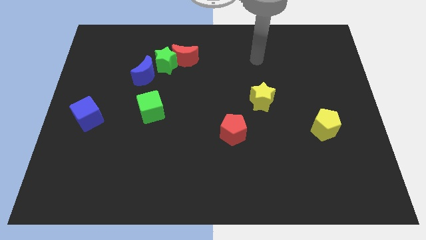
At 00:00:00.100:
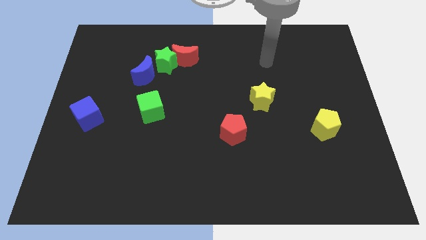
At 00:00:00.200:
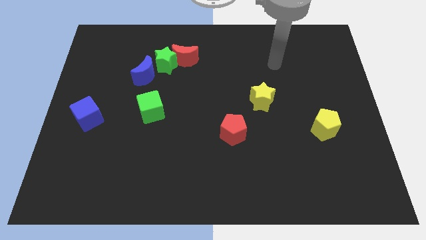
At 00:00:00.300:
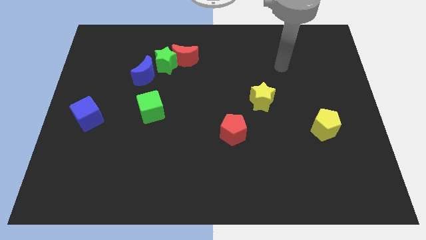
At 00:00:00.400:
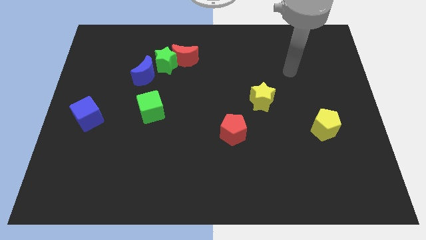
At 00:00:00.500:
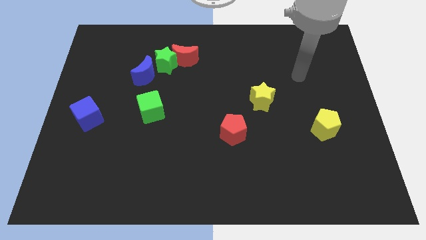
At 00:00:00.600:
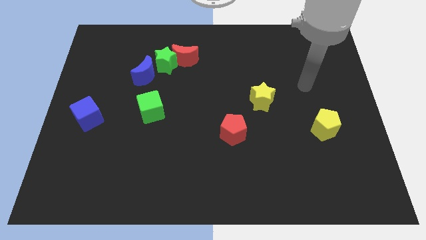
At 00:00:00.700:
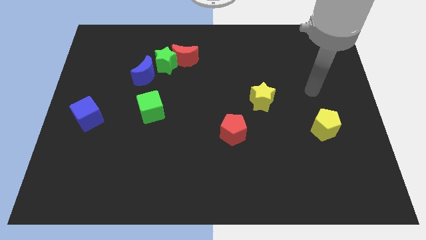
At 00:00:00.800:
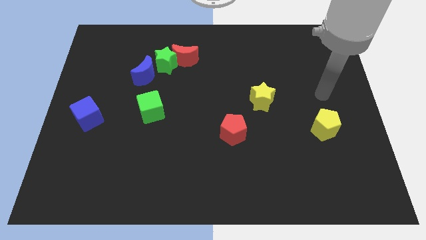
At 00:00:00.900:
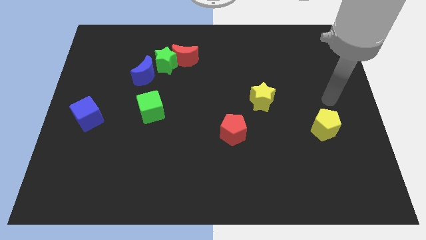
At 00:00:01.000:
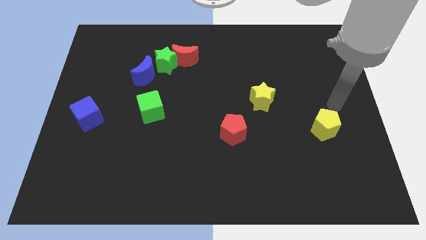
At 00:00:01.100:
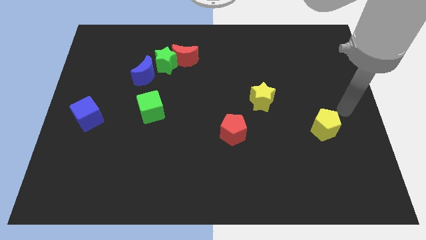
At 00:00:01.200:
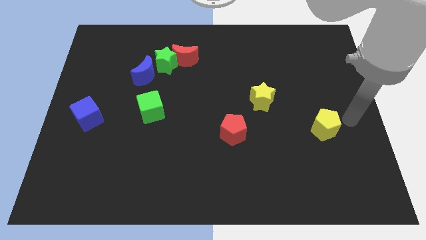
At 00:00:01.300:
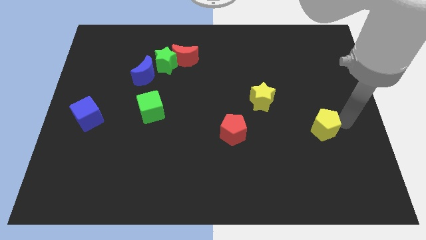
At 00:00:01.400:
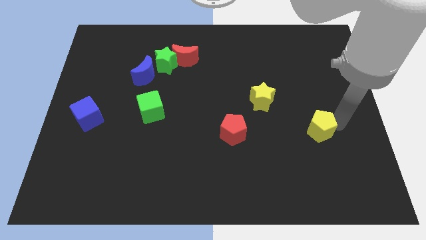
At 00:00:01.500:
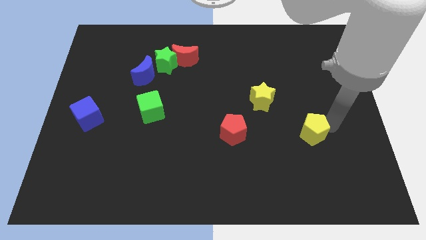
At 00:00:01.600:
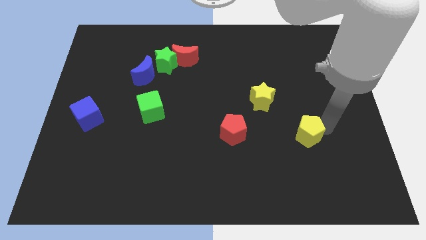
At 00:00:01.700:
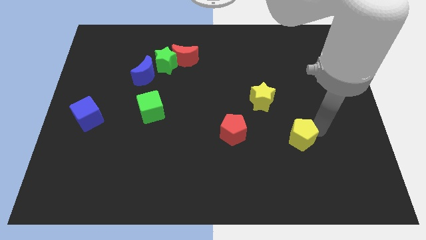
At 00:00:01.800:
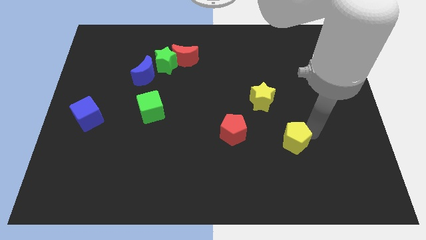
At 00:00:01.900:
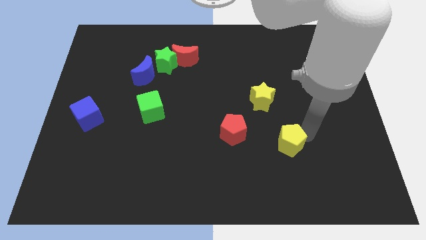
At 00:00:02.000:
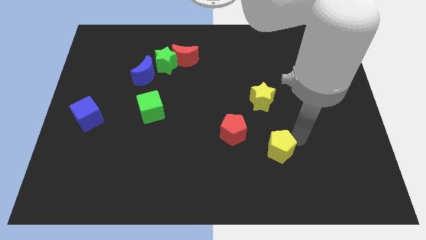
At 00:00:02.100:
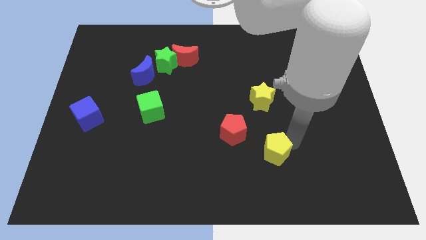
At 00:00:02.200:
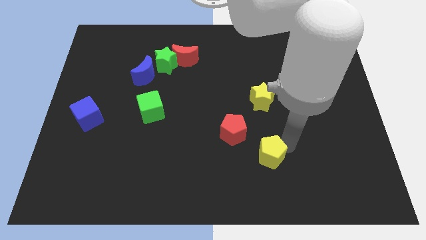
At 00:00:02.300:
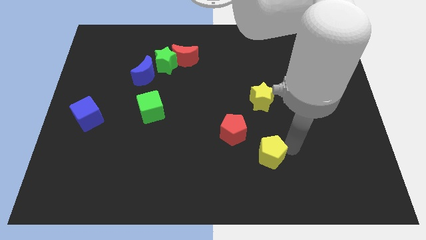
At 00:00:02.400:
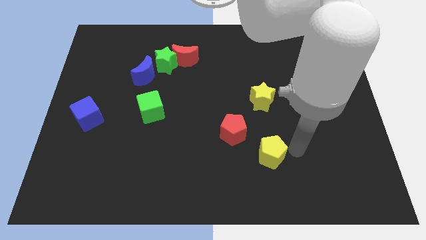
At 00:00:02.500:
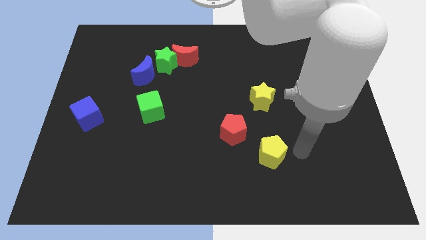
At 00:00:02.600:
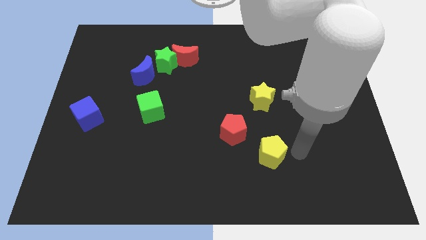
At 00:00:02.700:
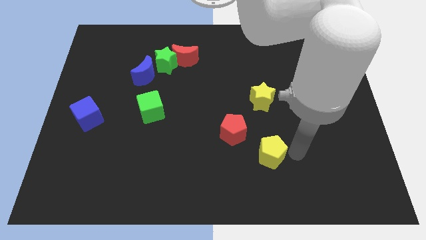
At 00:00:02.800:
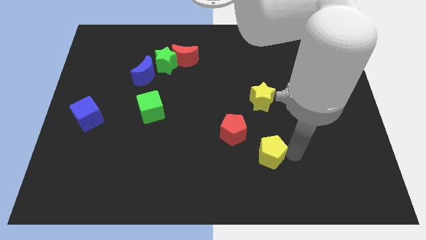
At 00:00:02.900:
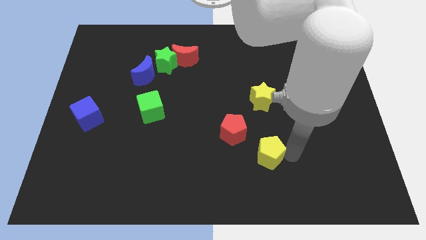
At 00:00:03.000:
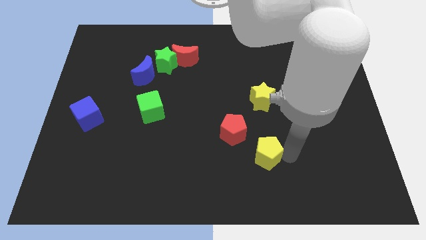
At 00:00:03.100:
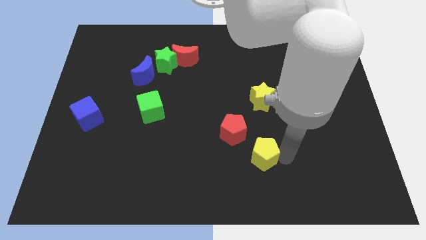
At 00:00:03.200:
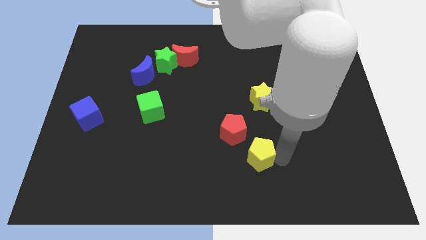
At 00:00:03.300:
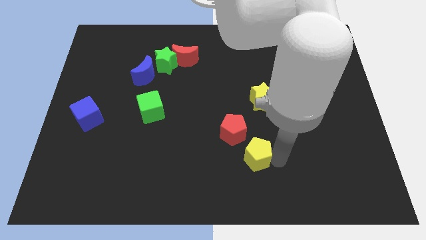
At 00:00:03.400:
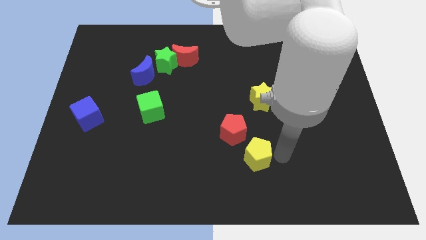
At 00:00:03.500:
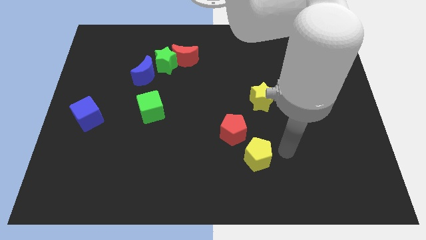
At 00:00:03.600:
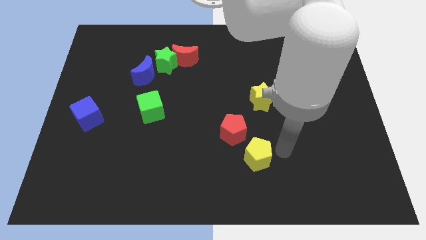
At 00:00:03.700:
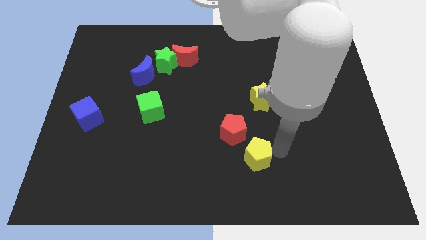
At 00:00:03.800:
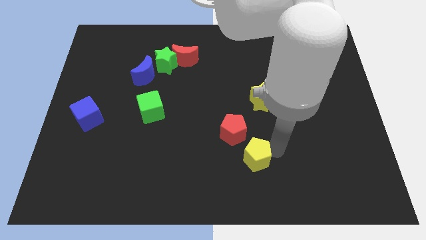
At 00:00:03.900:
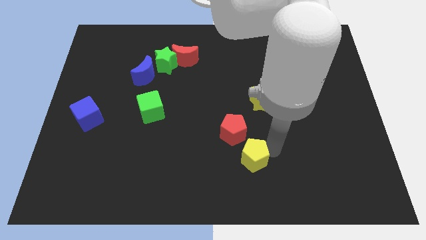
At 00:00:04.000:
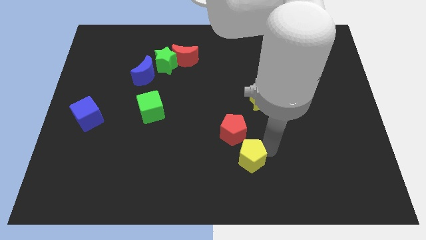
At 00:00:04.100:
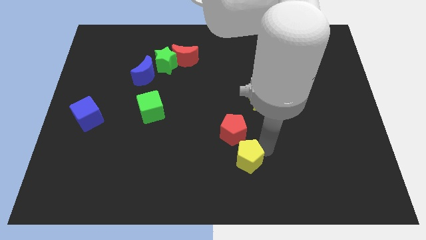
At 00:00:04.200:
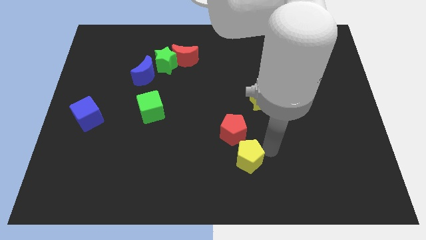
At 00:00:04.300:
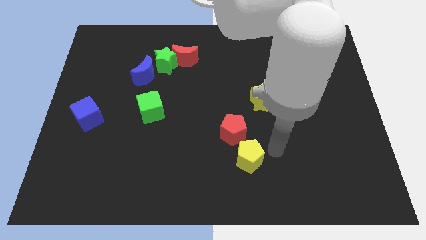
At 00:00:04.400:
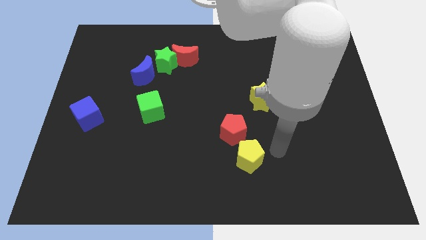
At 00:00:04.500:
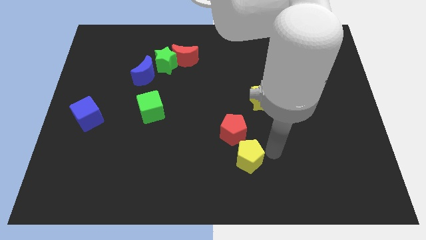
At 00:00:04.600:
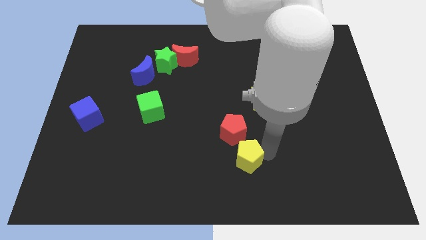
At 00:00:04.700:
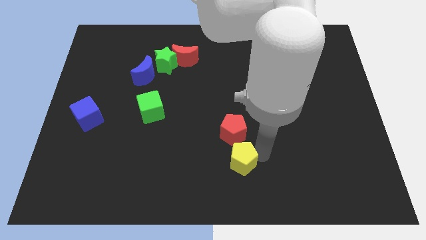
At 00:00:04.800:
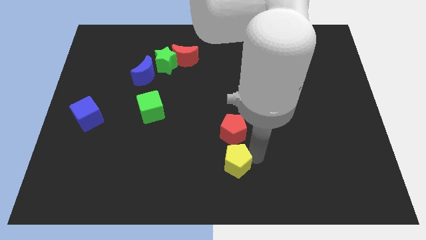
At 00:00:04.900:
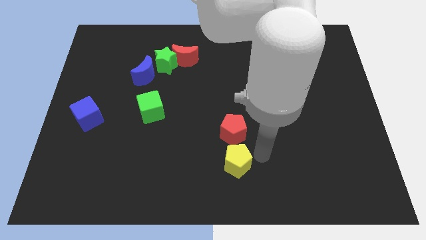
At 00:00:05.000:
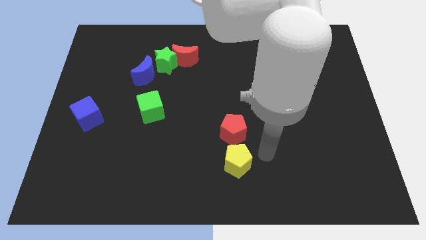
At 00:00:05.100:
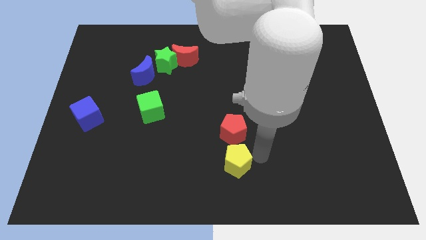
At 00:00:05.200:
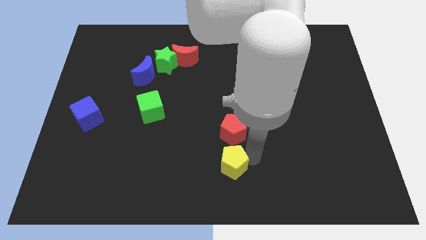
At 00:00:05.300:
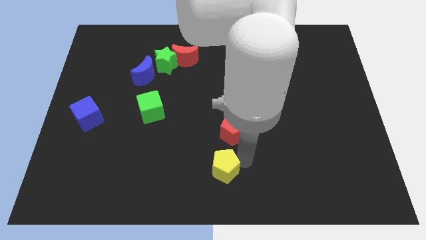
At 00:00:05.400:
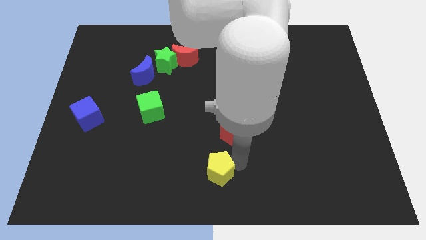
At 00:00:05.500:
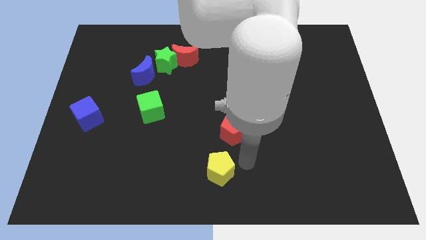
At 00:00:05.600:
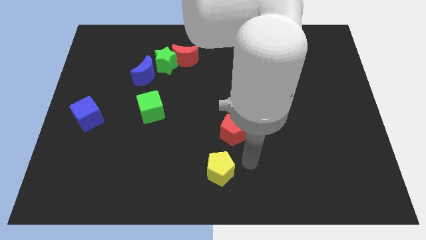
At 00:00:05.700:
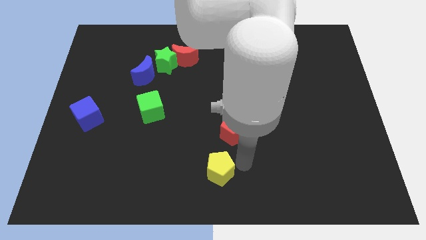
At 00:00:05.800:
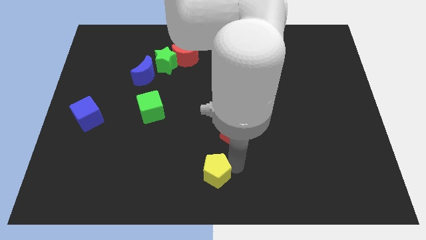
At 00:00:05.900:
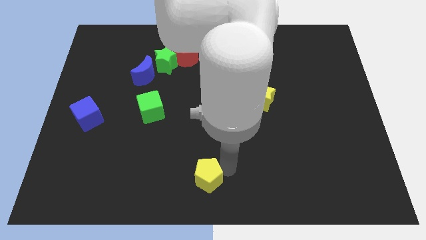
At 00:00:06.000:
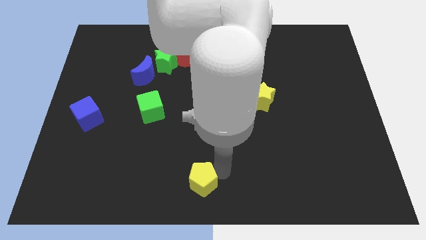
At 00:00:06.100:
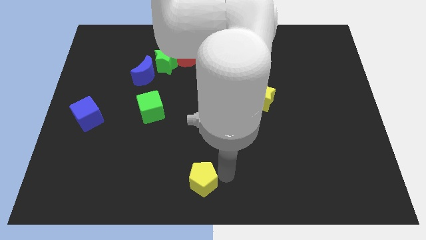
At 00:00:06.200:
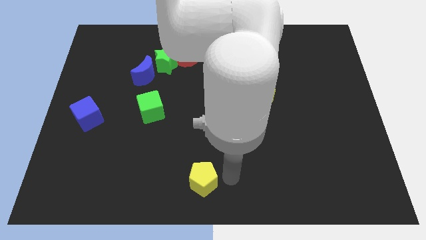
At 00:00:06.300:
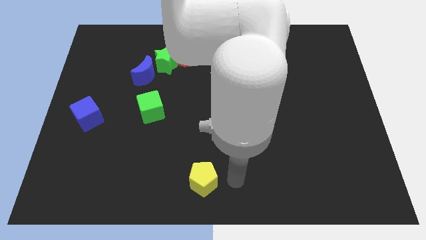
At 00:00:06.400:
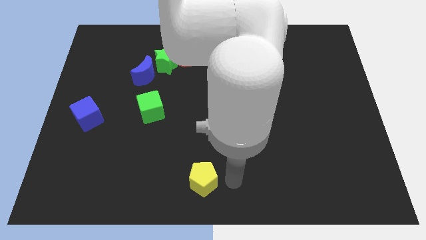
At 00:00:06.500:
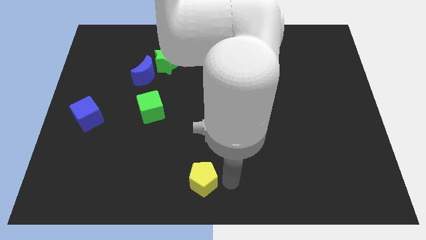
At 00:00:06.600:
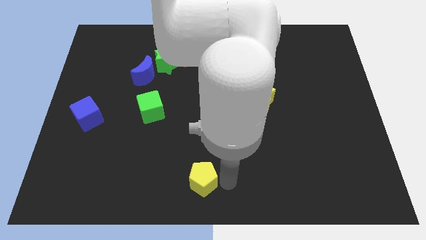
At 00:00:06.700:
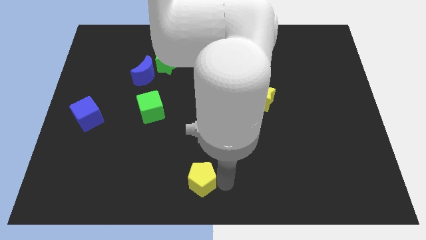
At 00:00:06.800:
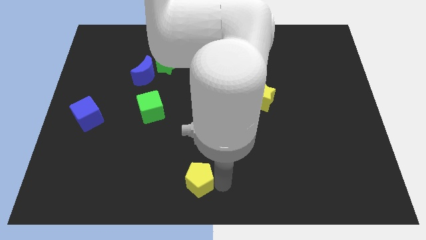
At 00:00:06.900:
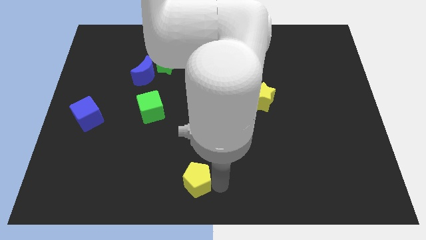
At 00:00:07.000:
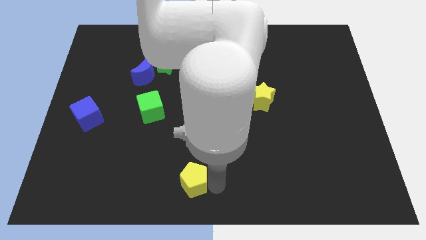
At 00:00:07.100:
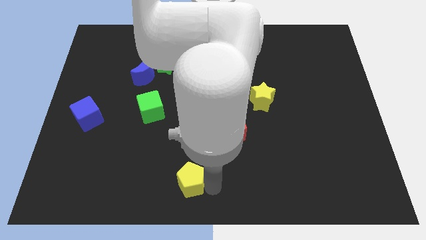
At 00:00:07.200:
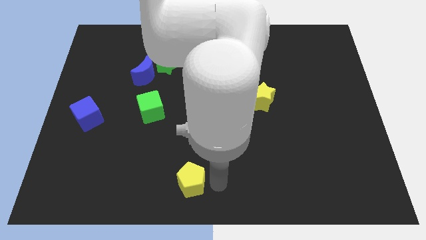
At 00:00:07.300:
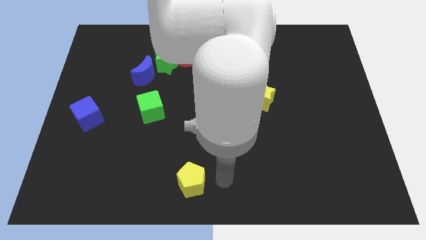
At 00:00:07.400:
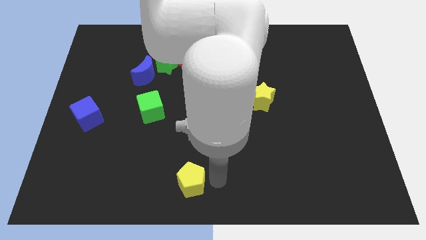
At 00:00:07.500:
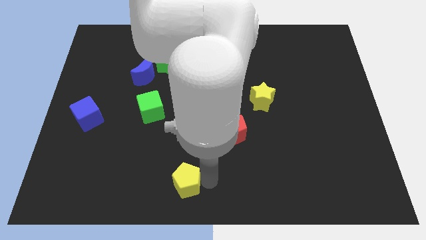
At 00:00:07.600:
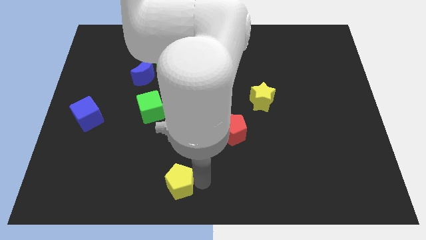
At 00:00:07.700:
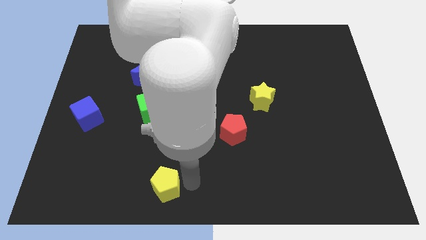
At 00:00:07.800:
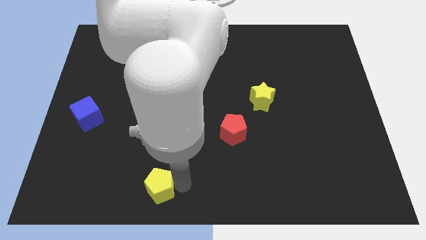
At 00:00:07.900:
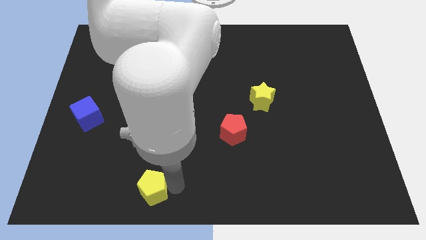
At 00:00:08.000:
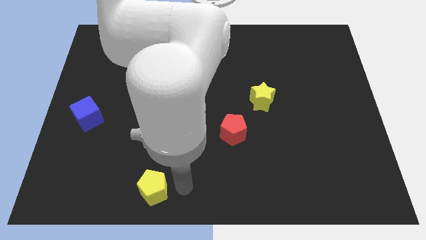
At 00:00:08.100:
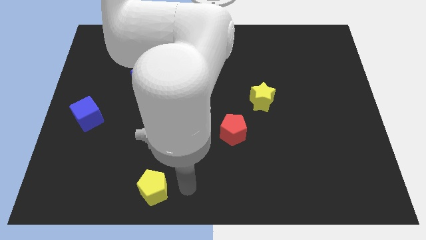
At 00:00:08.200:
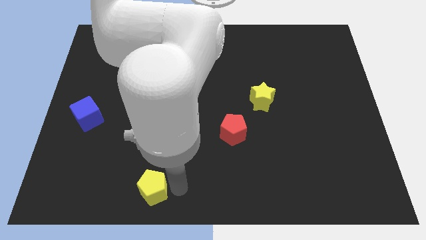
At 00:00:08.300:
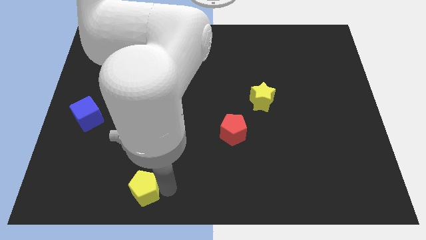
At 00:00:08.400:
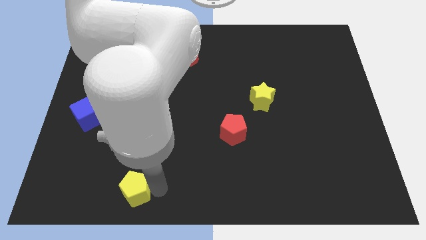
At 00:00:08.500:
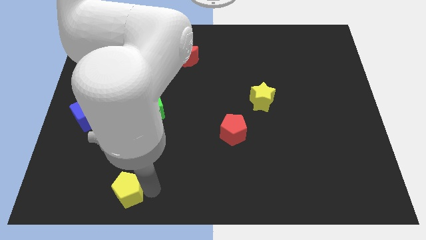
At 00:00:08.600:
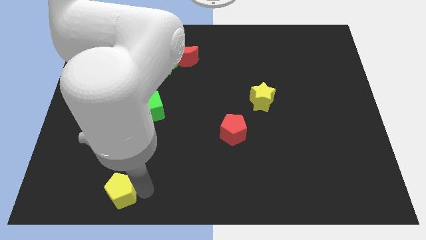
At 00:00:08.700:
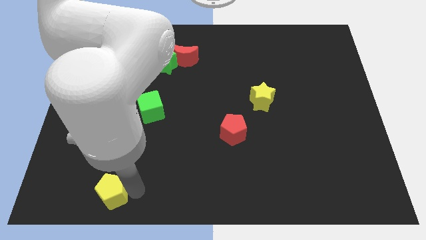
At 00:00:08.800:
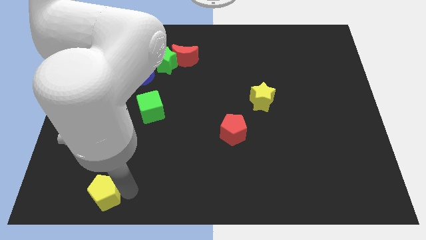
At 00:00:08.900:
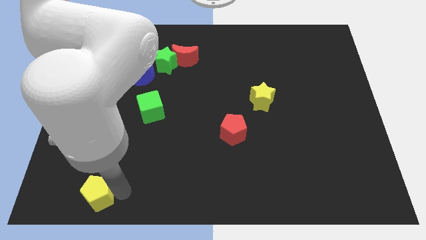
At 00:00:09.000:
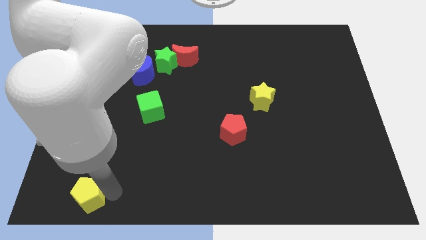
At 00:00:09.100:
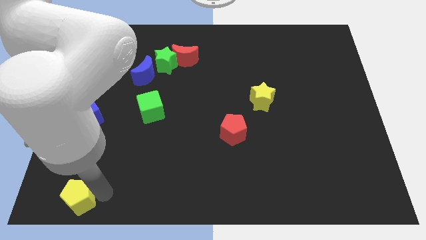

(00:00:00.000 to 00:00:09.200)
push the yellow pentagon to the bottom left corner
